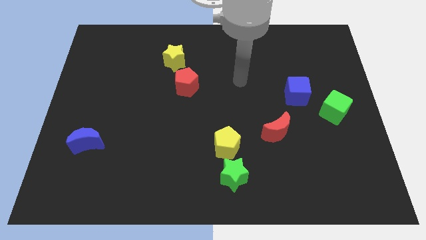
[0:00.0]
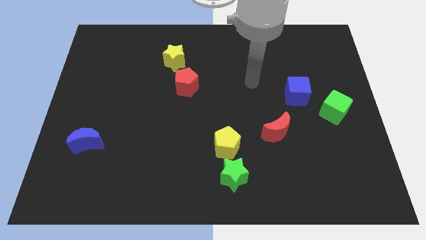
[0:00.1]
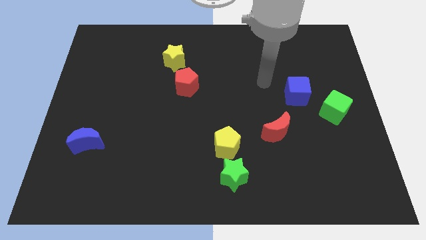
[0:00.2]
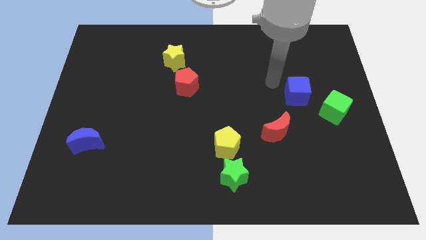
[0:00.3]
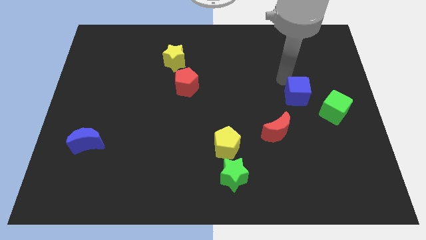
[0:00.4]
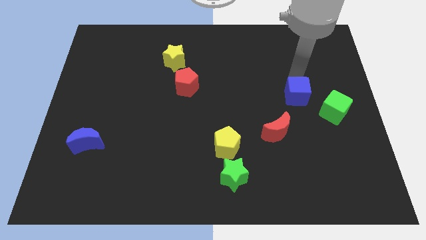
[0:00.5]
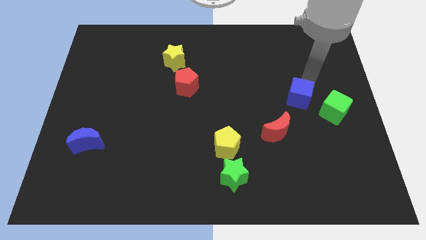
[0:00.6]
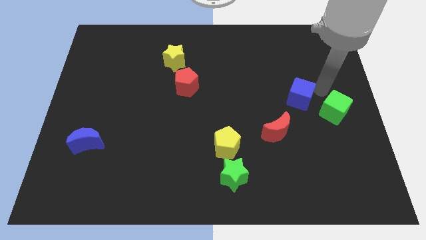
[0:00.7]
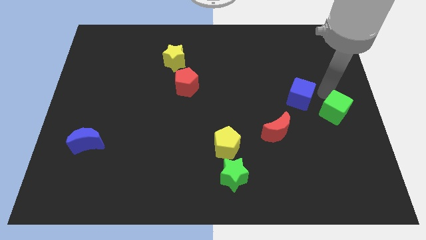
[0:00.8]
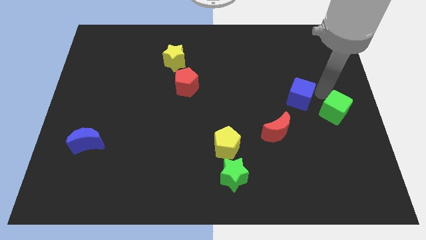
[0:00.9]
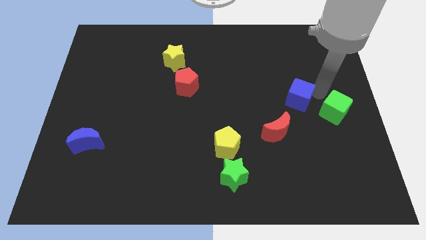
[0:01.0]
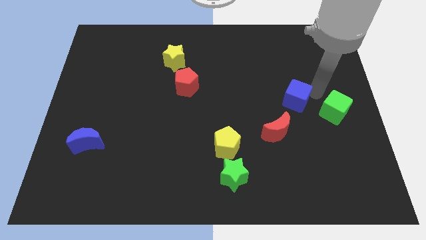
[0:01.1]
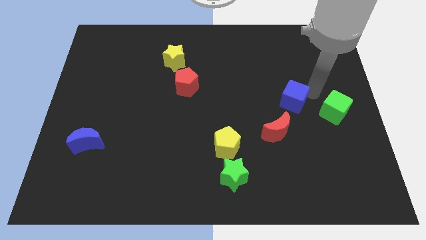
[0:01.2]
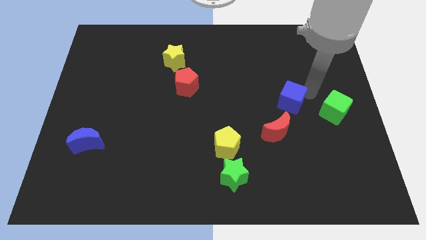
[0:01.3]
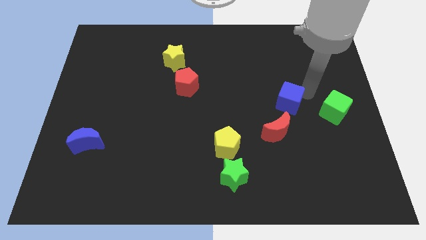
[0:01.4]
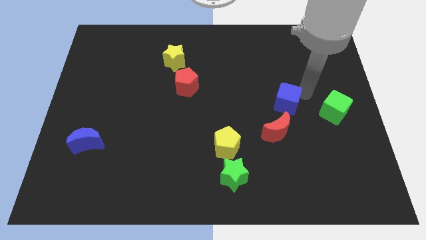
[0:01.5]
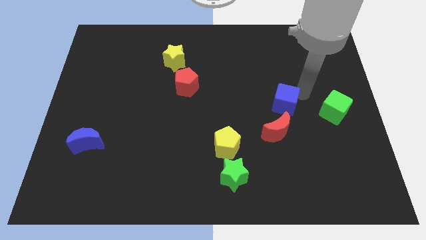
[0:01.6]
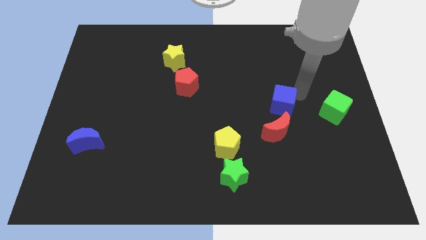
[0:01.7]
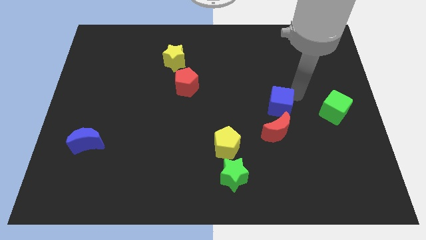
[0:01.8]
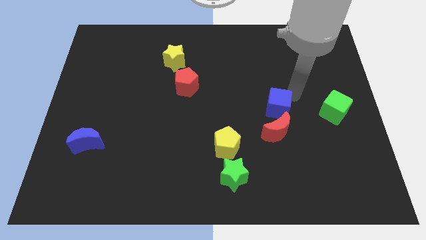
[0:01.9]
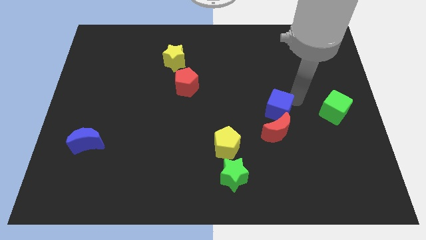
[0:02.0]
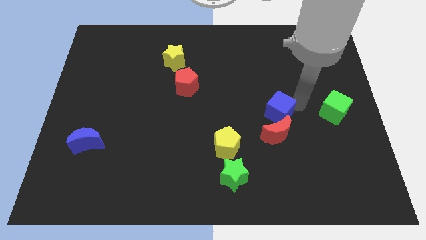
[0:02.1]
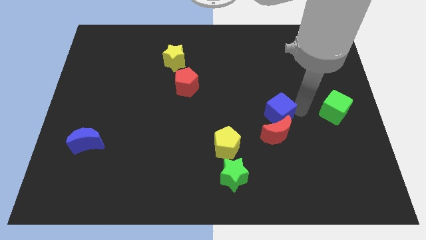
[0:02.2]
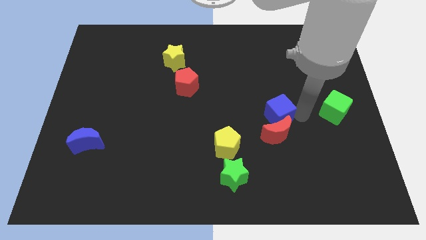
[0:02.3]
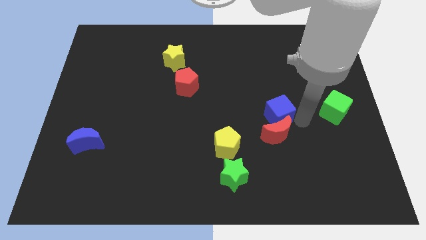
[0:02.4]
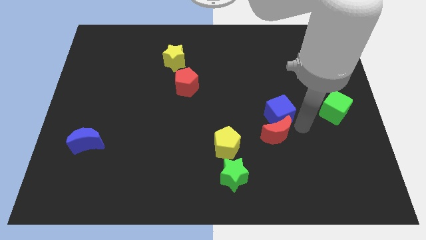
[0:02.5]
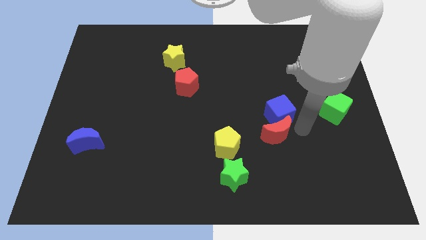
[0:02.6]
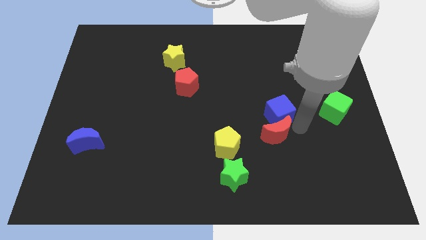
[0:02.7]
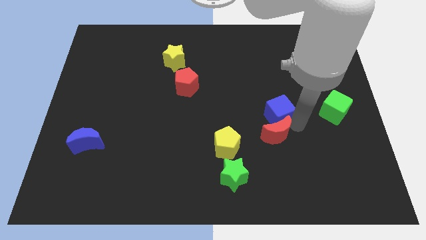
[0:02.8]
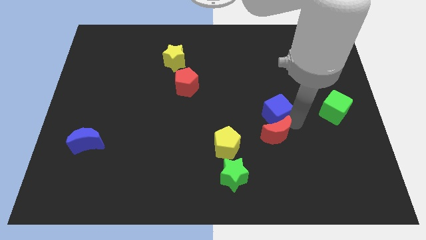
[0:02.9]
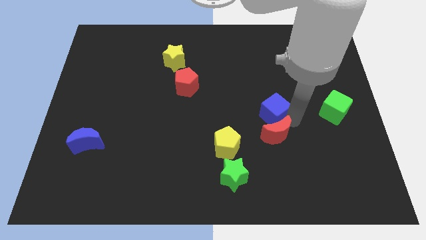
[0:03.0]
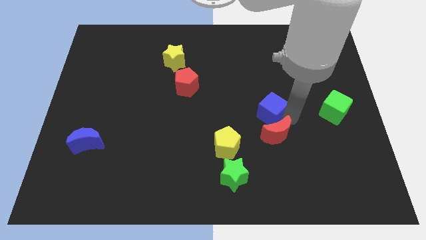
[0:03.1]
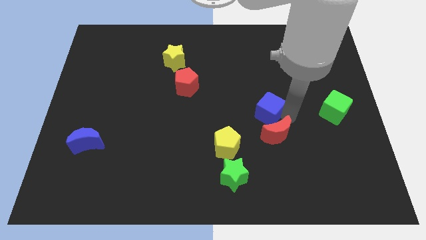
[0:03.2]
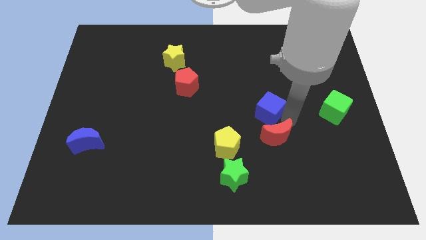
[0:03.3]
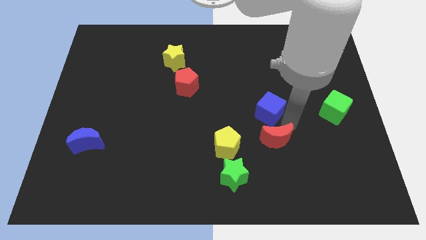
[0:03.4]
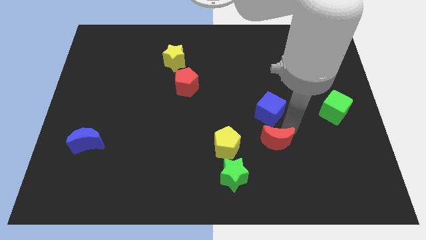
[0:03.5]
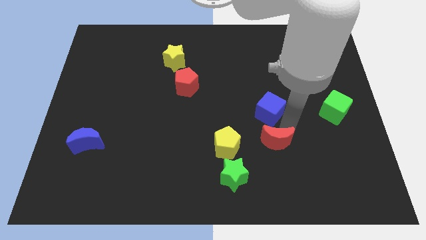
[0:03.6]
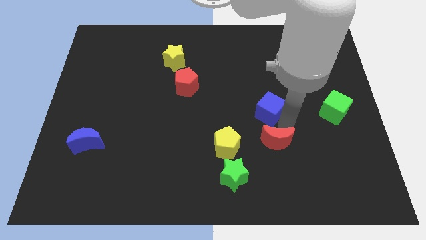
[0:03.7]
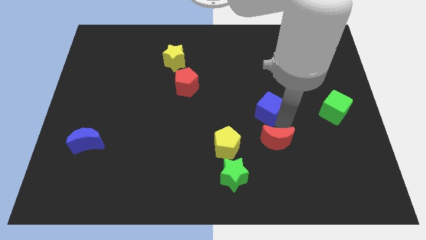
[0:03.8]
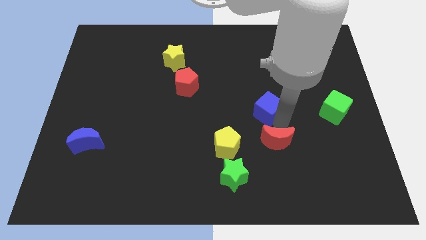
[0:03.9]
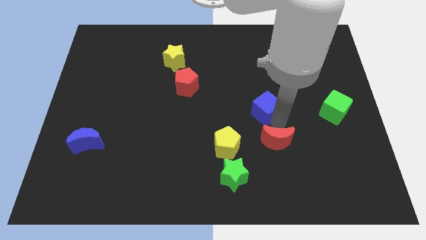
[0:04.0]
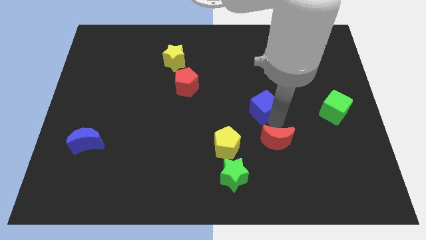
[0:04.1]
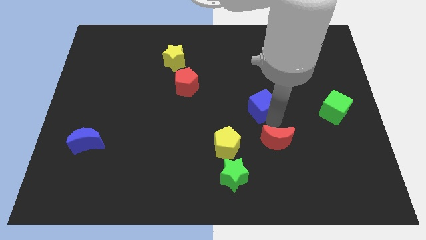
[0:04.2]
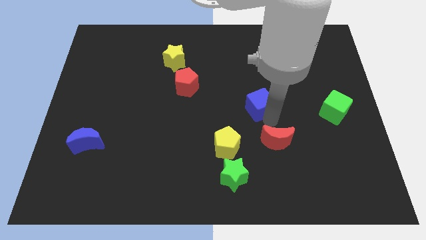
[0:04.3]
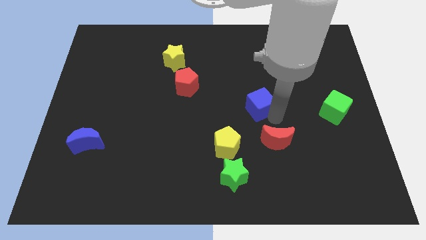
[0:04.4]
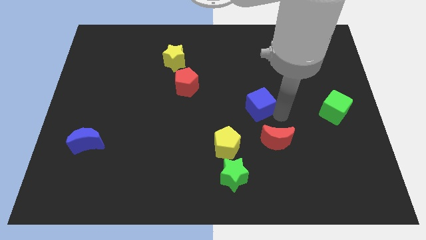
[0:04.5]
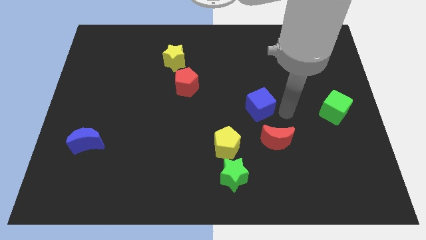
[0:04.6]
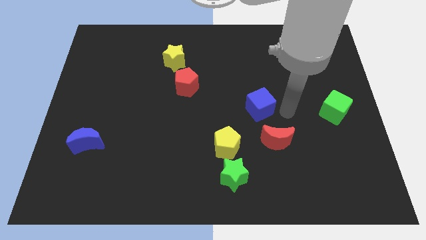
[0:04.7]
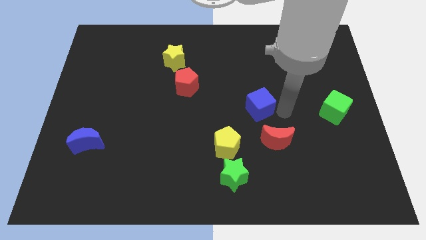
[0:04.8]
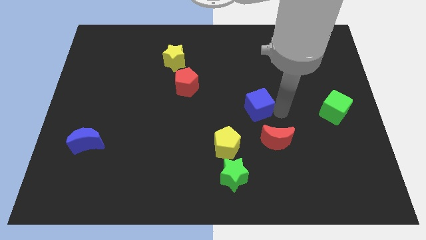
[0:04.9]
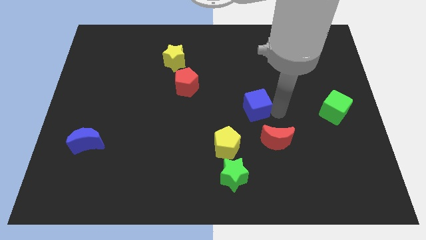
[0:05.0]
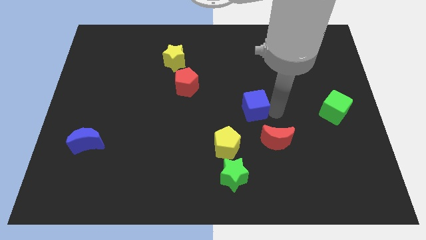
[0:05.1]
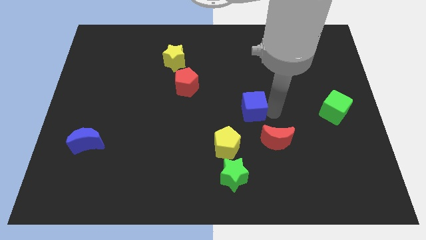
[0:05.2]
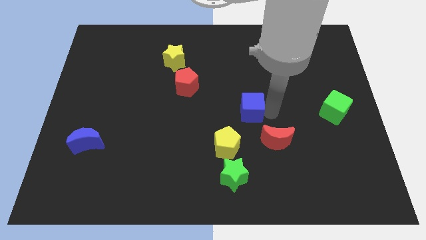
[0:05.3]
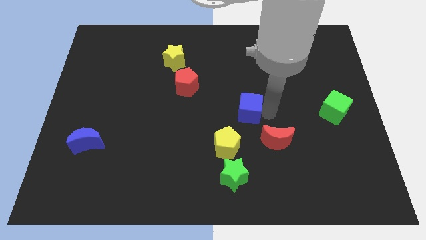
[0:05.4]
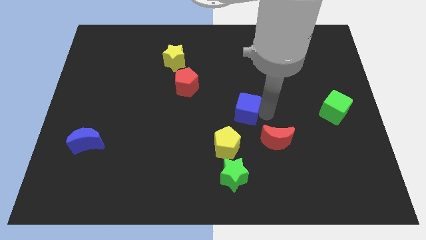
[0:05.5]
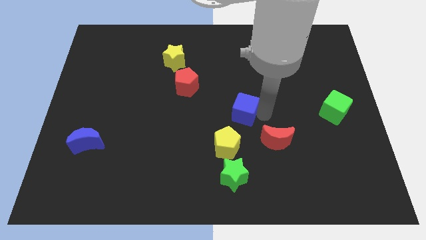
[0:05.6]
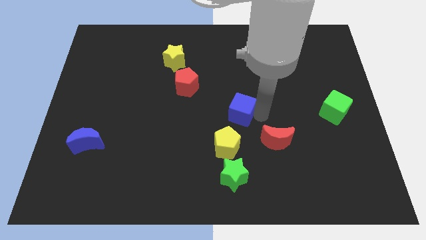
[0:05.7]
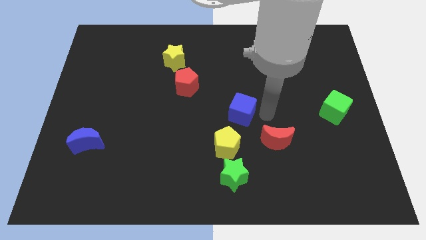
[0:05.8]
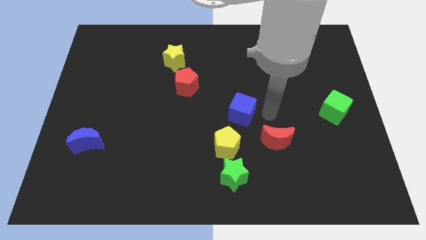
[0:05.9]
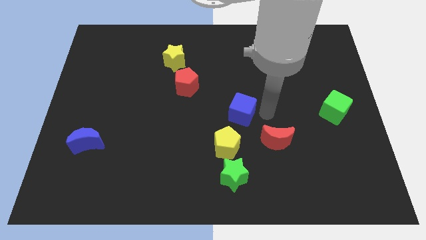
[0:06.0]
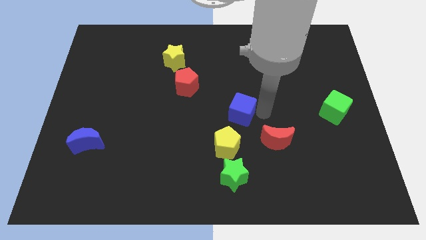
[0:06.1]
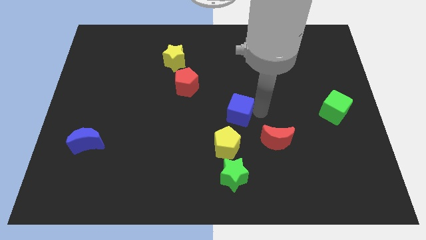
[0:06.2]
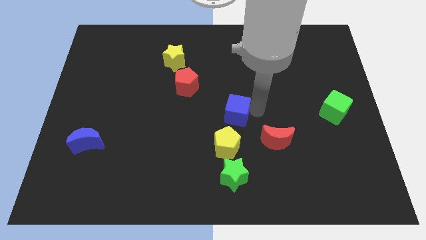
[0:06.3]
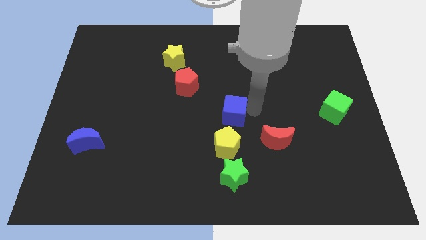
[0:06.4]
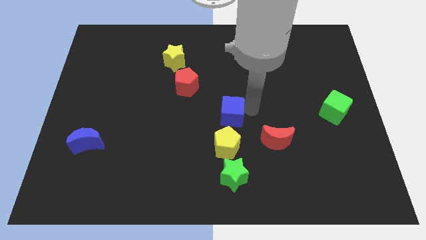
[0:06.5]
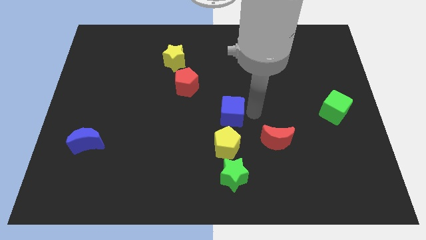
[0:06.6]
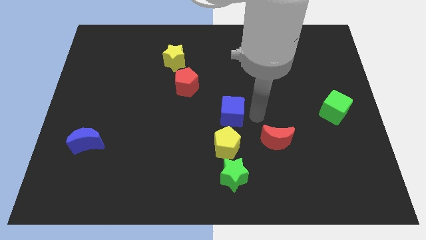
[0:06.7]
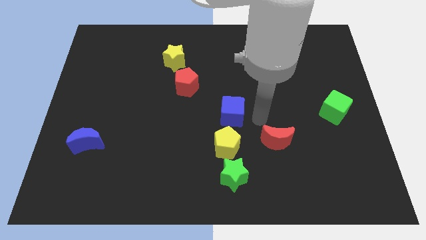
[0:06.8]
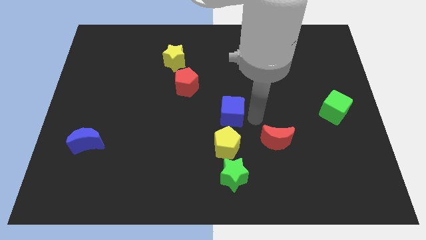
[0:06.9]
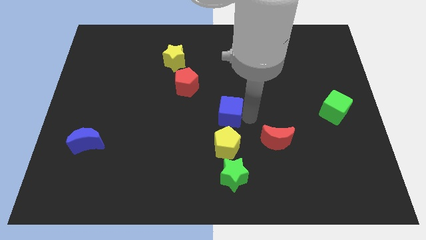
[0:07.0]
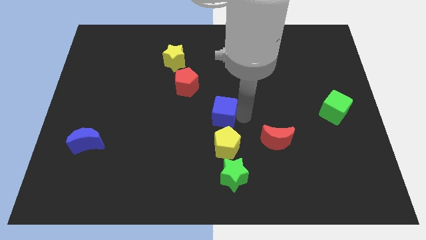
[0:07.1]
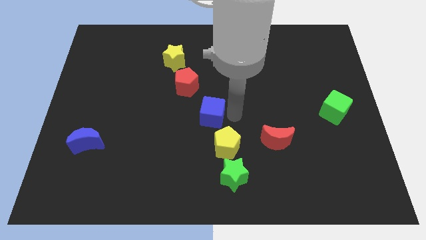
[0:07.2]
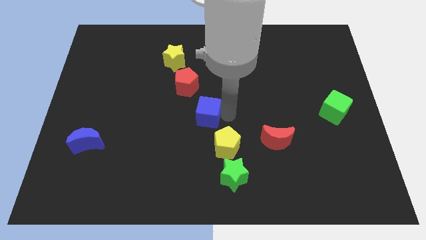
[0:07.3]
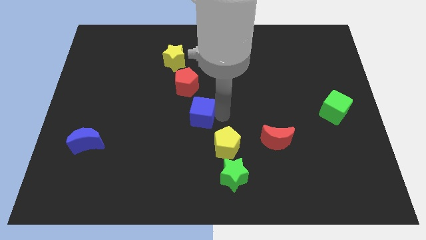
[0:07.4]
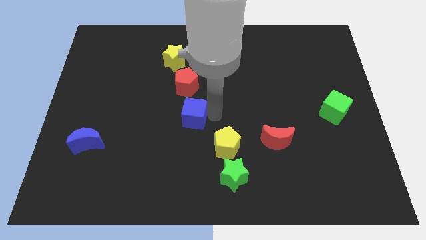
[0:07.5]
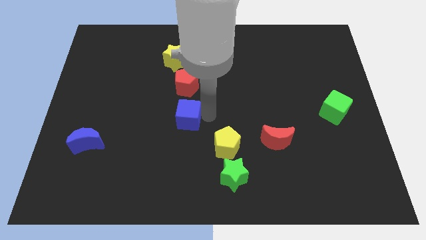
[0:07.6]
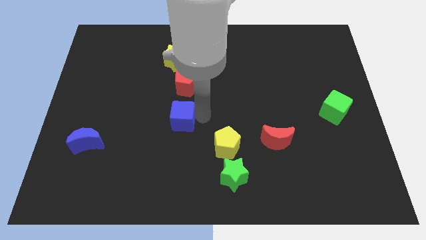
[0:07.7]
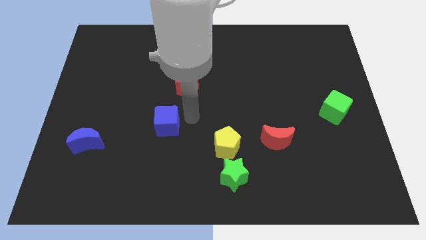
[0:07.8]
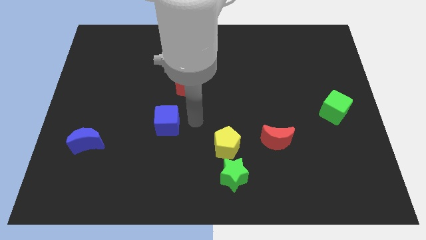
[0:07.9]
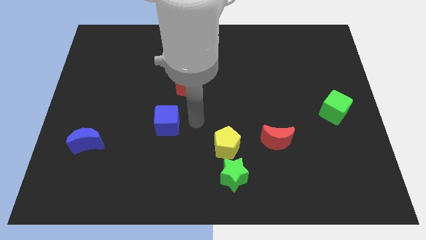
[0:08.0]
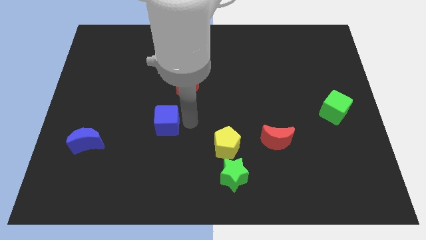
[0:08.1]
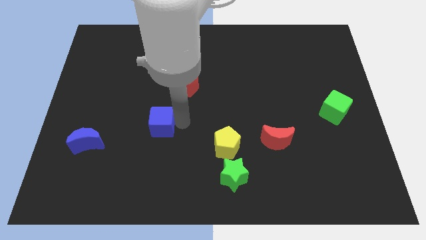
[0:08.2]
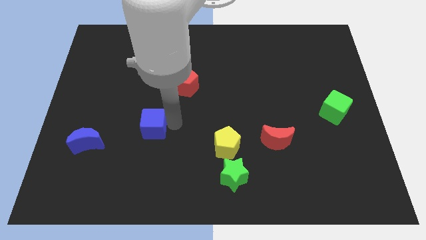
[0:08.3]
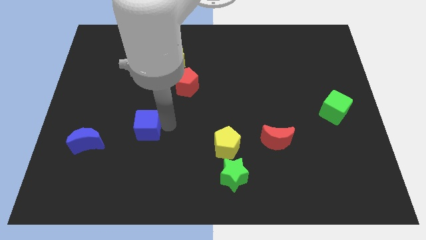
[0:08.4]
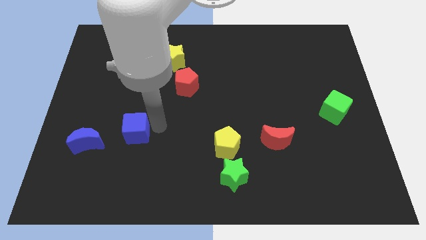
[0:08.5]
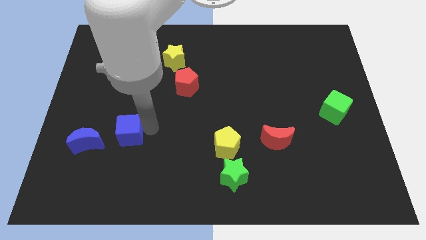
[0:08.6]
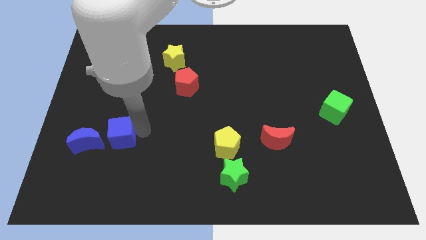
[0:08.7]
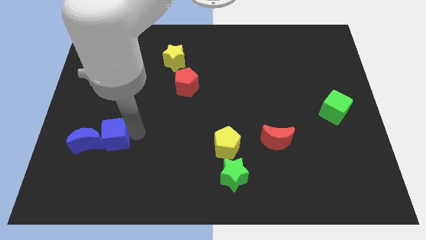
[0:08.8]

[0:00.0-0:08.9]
push the blue cube close to the blue moon
